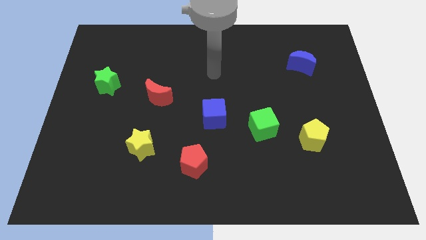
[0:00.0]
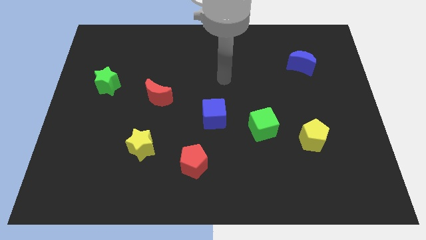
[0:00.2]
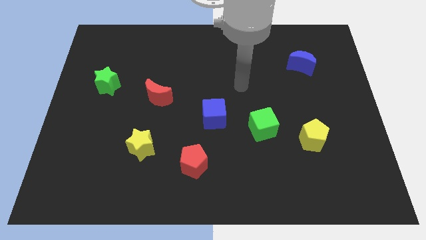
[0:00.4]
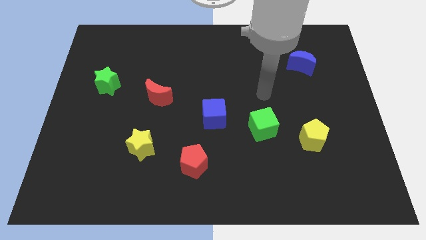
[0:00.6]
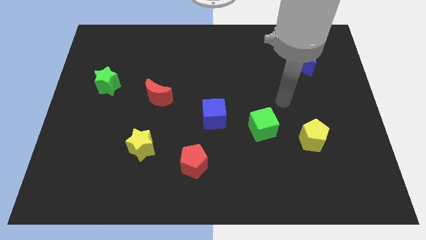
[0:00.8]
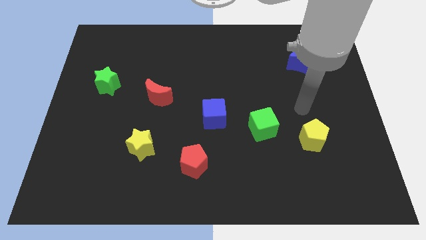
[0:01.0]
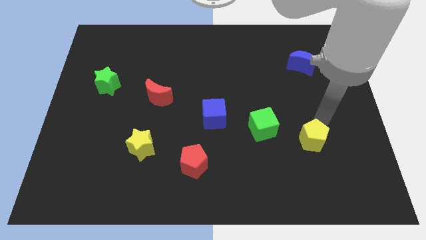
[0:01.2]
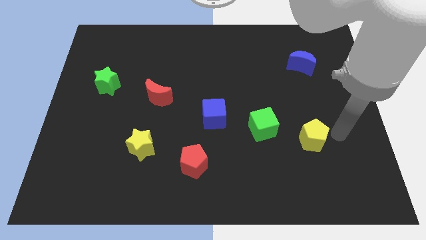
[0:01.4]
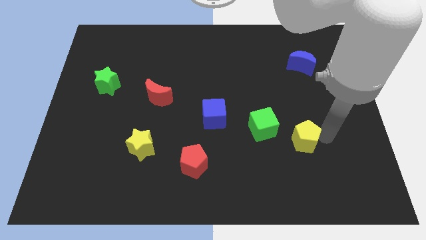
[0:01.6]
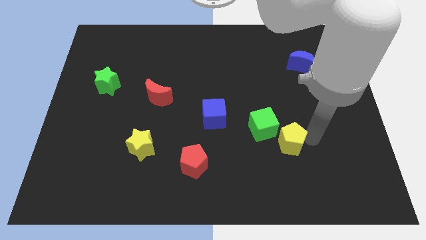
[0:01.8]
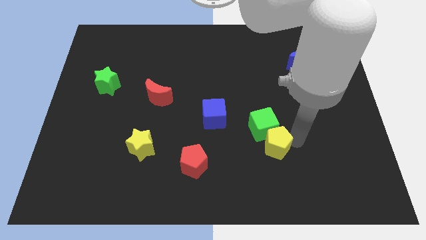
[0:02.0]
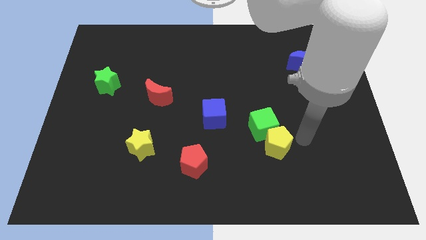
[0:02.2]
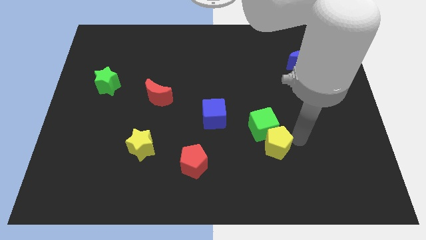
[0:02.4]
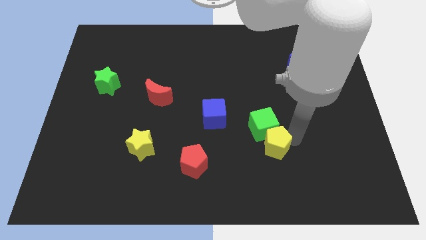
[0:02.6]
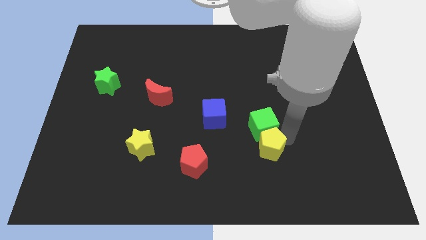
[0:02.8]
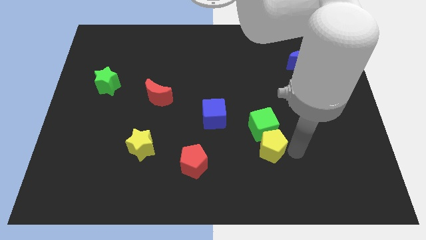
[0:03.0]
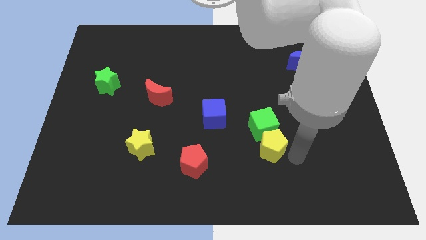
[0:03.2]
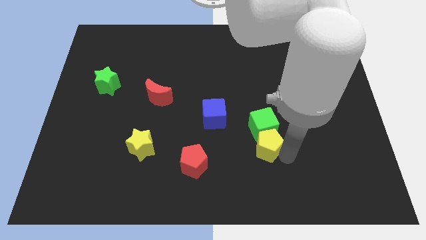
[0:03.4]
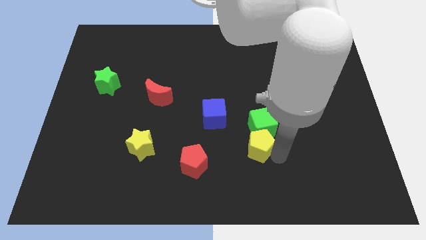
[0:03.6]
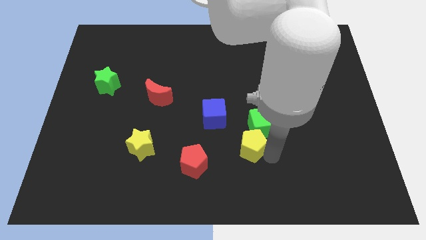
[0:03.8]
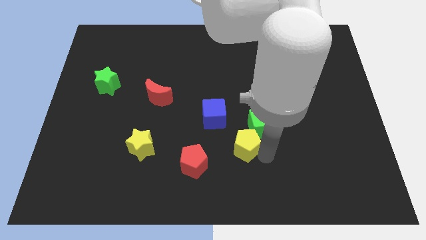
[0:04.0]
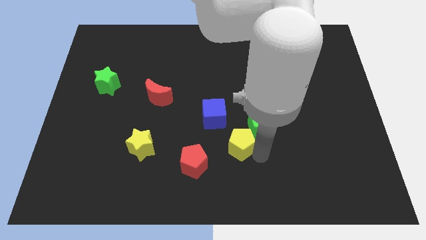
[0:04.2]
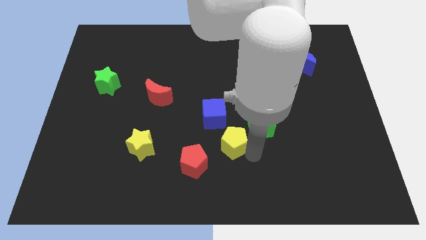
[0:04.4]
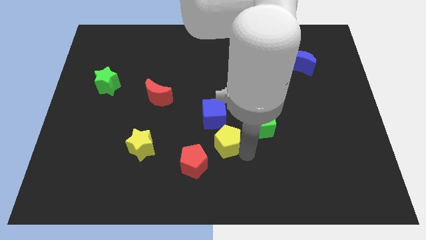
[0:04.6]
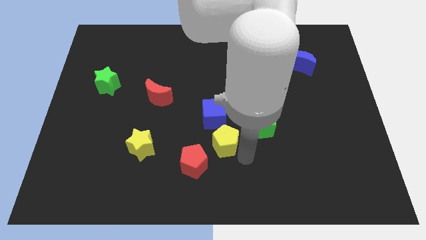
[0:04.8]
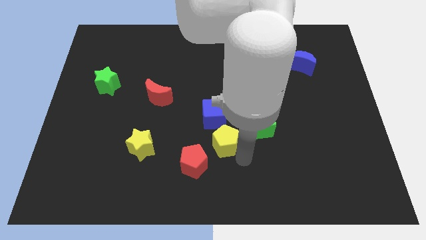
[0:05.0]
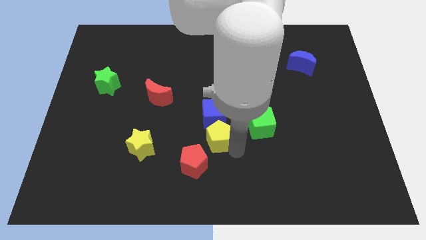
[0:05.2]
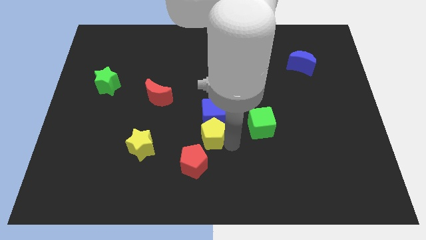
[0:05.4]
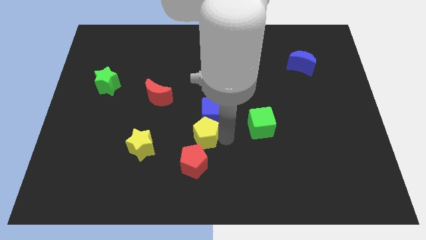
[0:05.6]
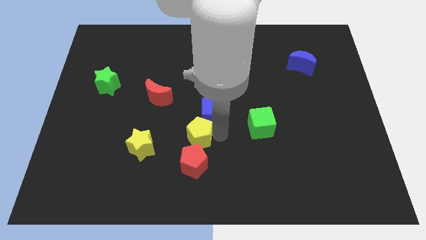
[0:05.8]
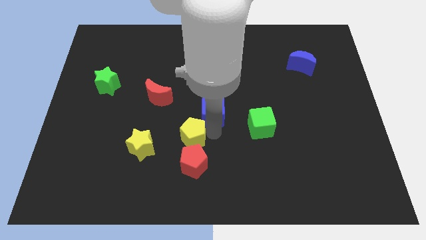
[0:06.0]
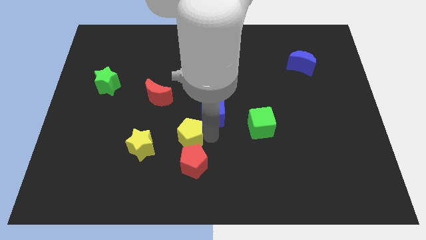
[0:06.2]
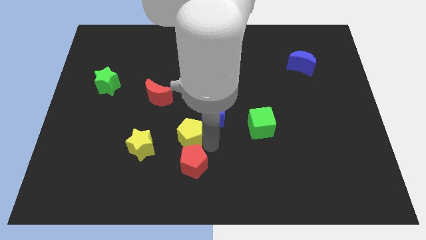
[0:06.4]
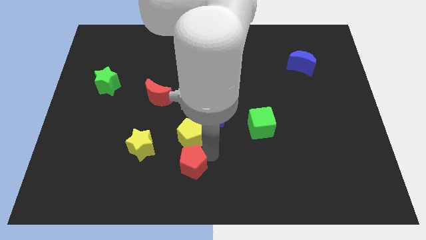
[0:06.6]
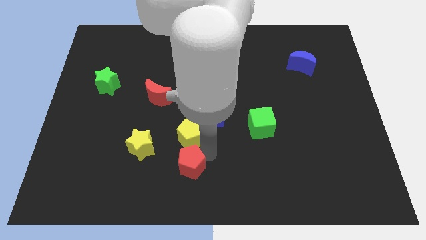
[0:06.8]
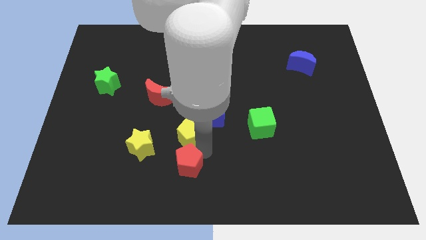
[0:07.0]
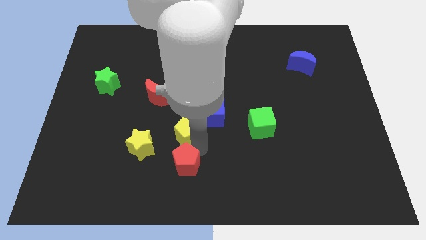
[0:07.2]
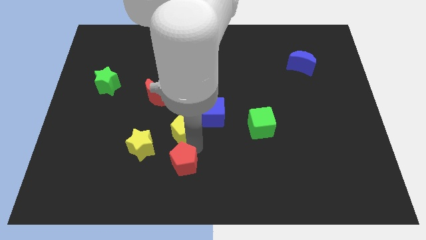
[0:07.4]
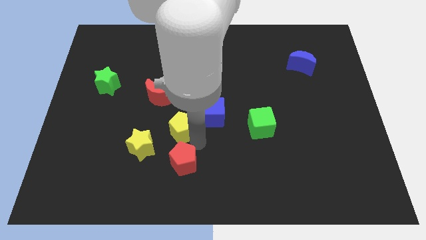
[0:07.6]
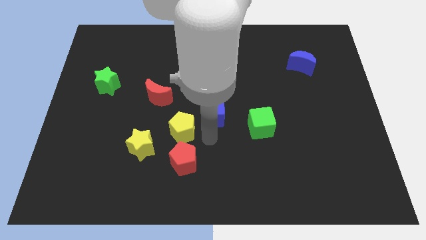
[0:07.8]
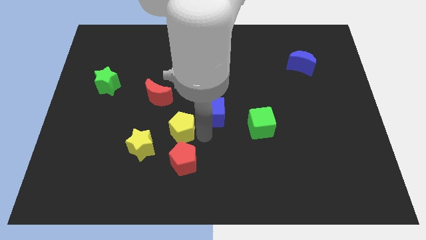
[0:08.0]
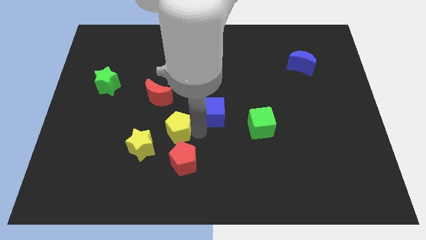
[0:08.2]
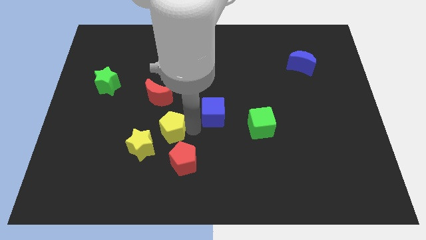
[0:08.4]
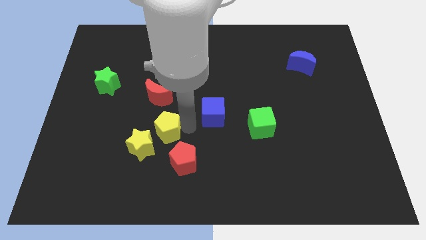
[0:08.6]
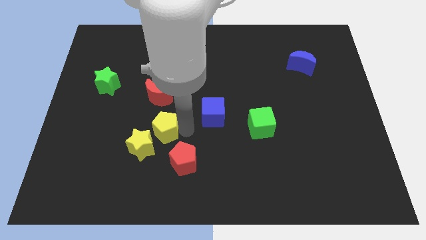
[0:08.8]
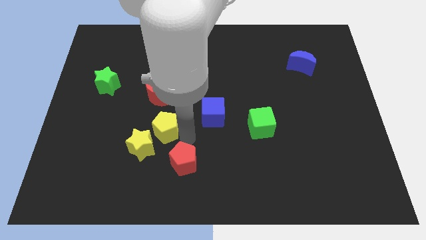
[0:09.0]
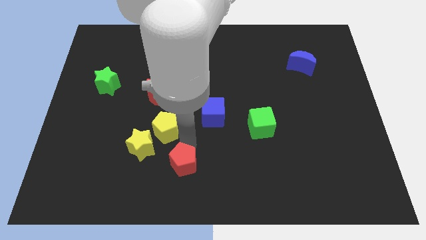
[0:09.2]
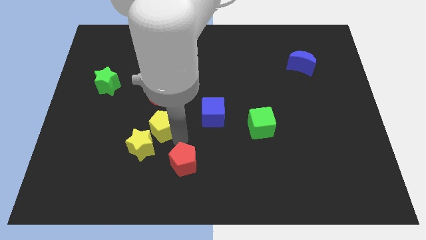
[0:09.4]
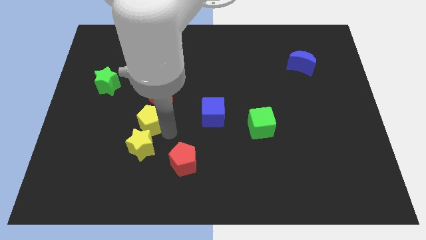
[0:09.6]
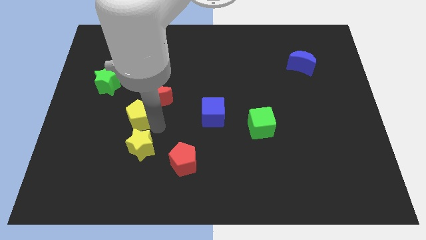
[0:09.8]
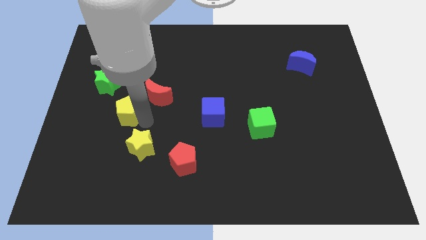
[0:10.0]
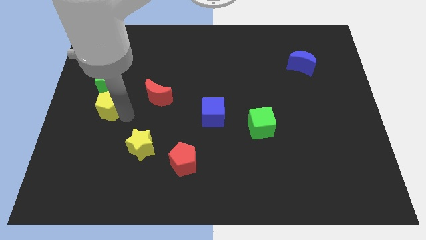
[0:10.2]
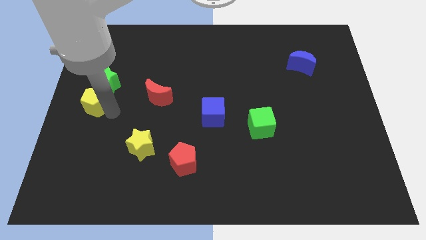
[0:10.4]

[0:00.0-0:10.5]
put the yellow pentagon to the green star

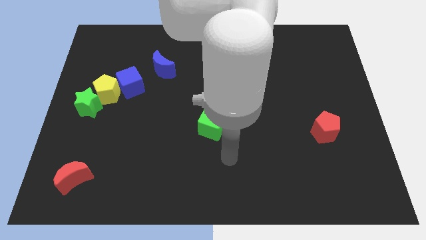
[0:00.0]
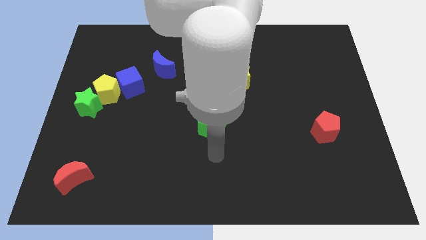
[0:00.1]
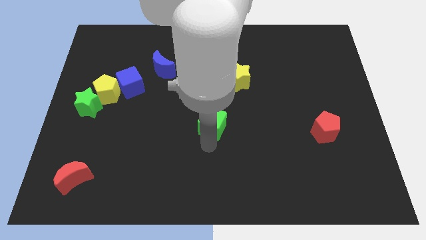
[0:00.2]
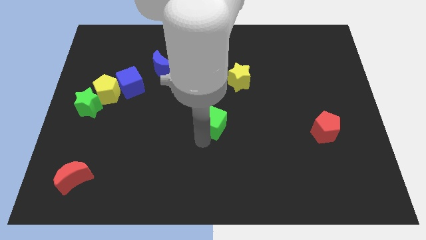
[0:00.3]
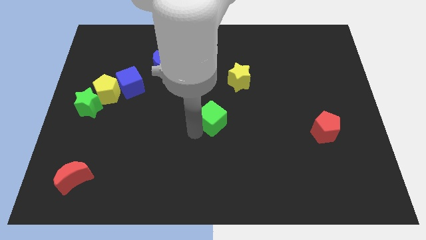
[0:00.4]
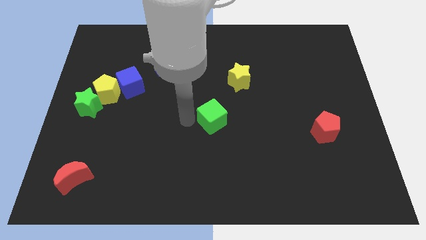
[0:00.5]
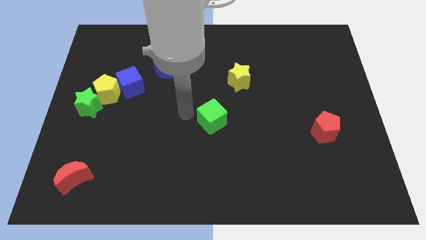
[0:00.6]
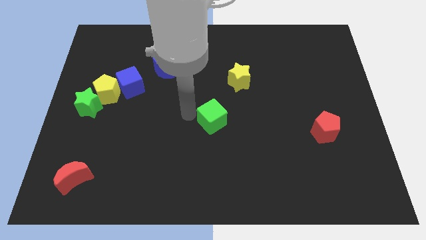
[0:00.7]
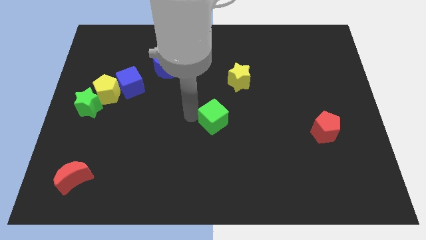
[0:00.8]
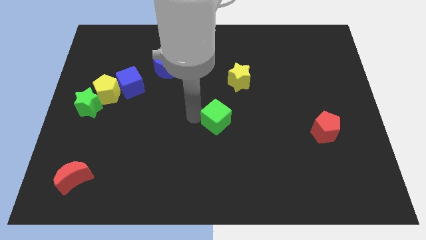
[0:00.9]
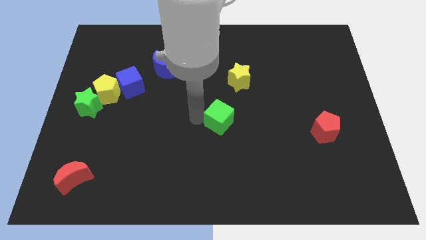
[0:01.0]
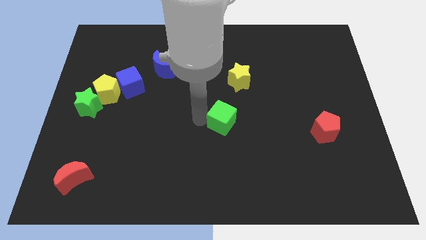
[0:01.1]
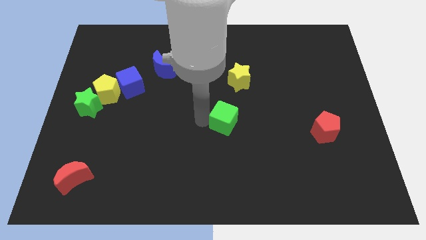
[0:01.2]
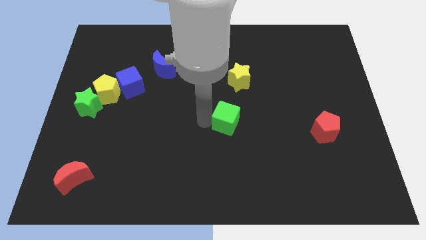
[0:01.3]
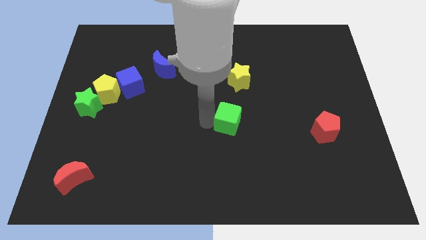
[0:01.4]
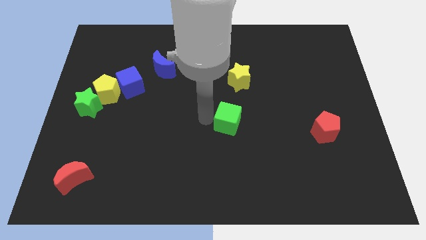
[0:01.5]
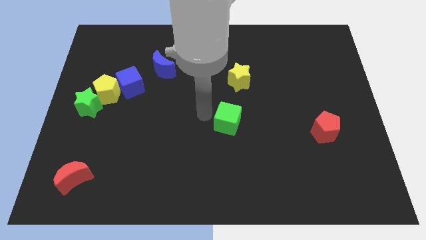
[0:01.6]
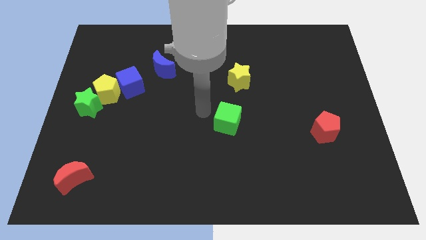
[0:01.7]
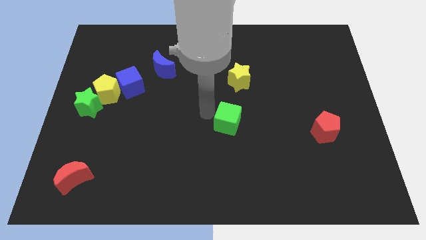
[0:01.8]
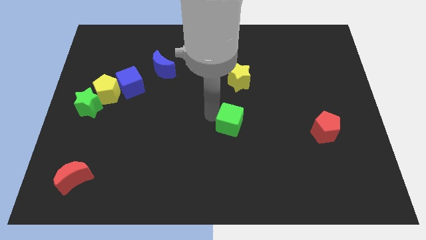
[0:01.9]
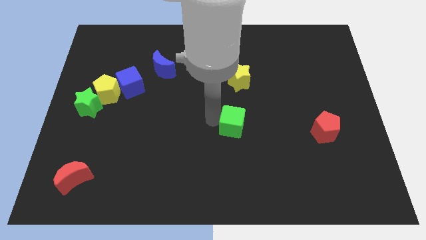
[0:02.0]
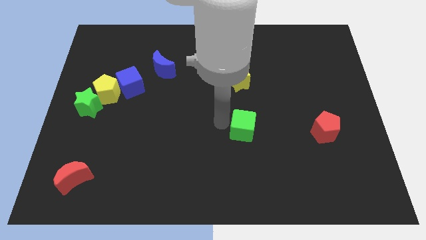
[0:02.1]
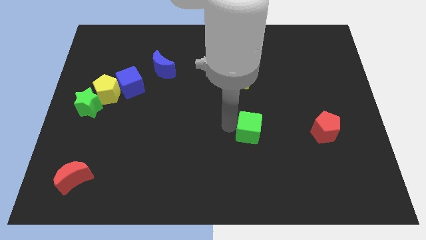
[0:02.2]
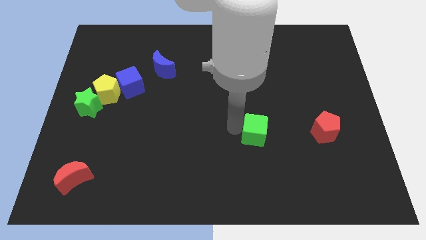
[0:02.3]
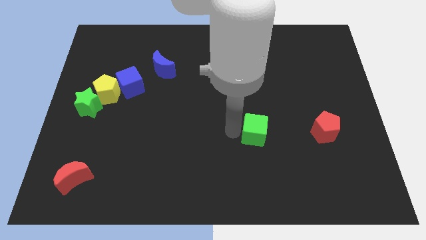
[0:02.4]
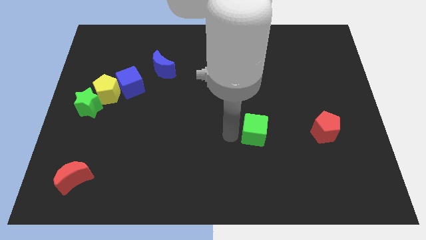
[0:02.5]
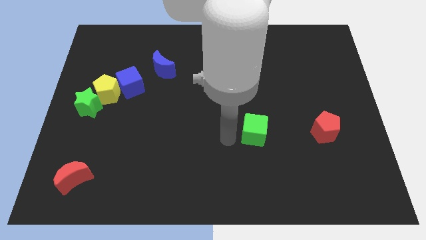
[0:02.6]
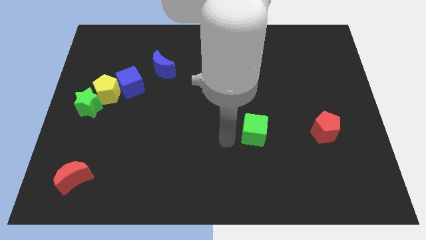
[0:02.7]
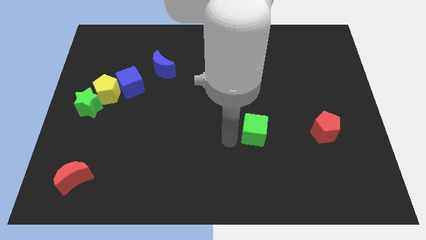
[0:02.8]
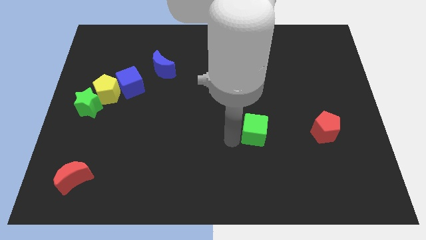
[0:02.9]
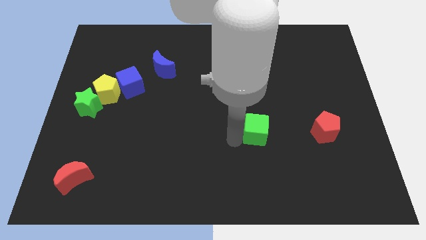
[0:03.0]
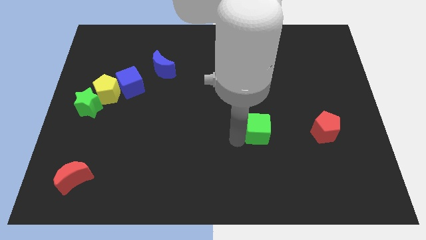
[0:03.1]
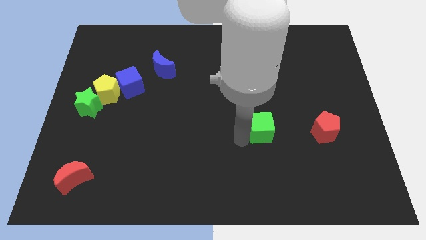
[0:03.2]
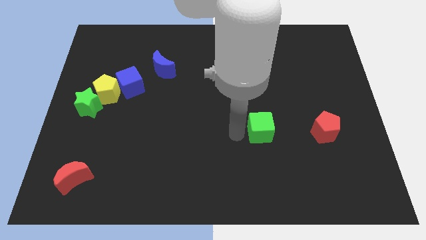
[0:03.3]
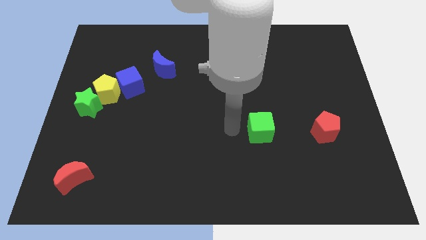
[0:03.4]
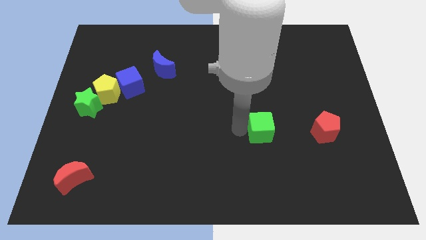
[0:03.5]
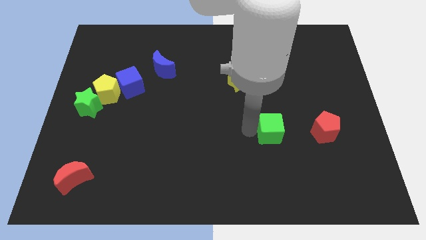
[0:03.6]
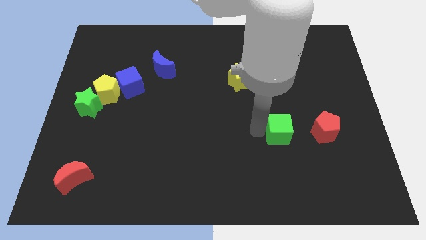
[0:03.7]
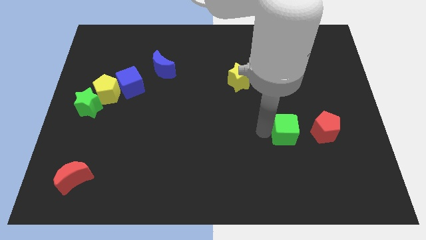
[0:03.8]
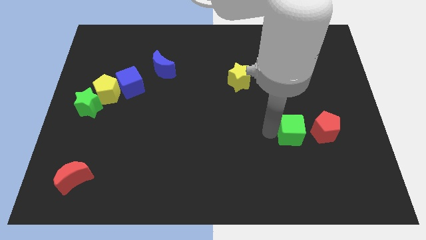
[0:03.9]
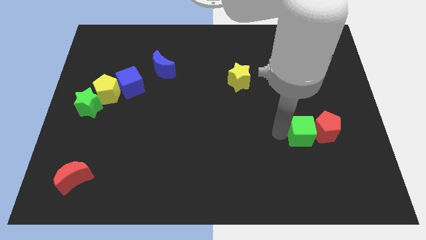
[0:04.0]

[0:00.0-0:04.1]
move the green cube next to the red pentagon
